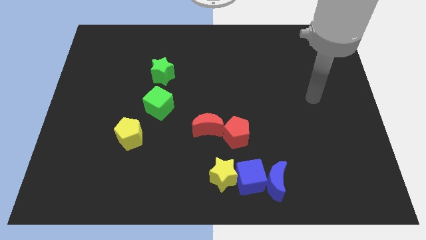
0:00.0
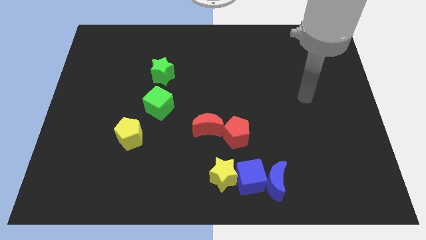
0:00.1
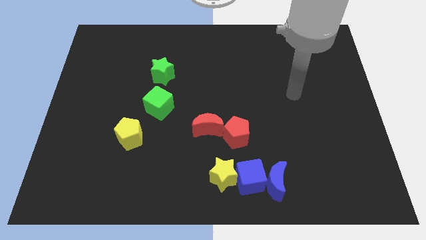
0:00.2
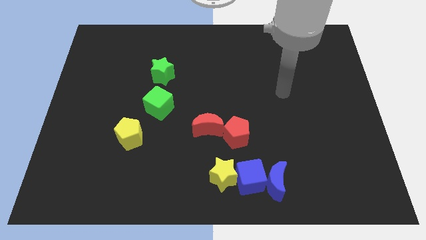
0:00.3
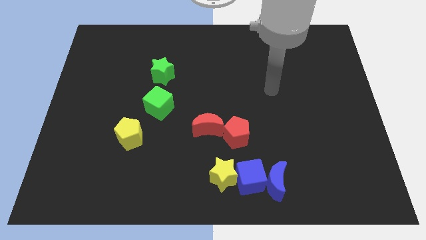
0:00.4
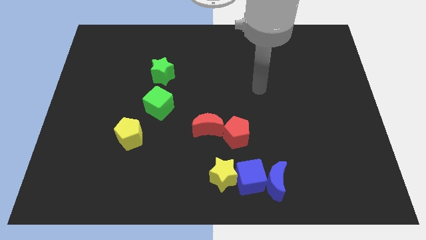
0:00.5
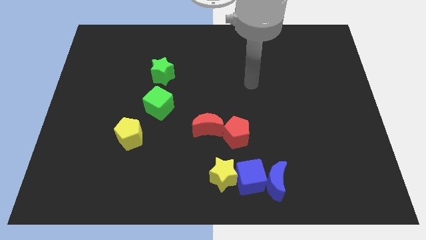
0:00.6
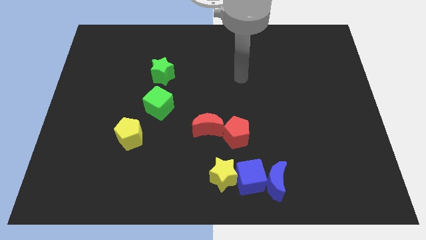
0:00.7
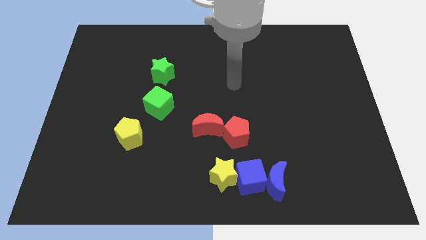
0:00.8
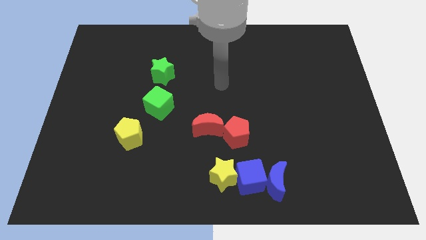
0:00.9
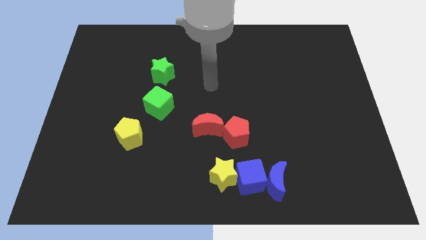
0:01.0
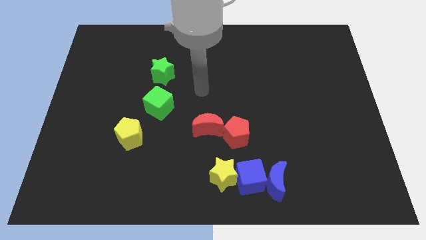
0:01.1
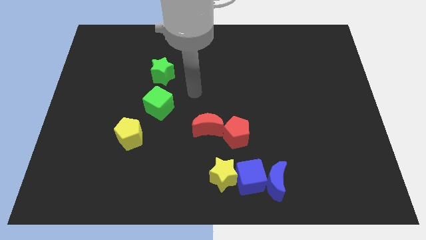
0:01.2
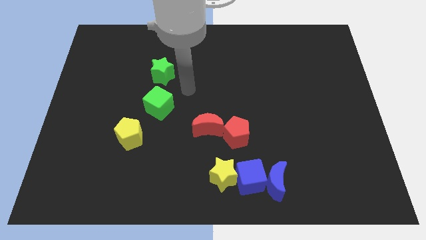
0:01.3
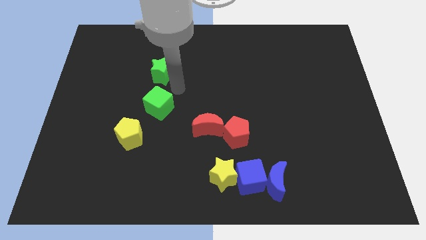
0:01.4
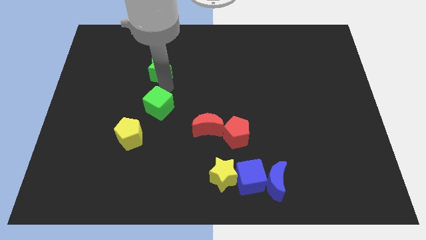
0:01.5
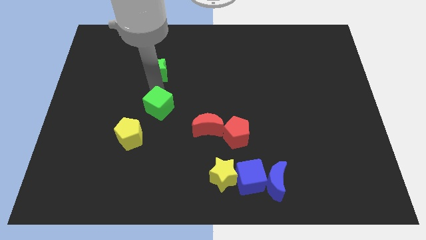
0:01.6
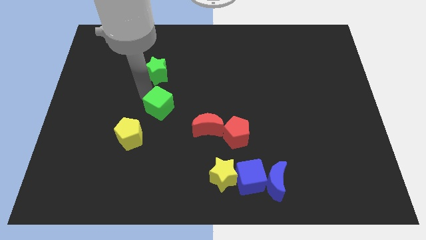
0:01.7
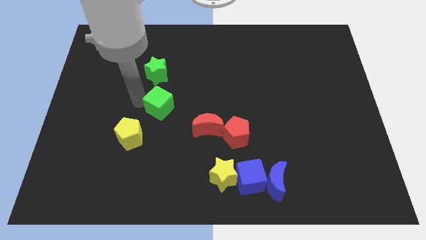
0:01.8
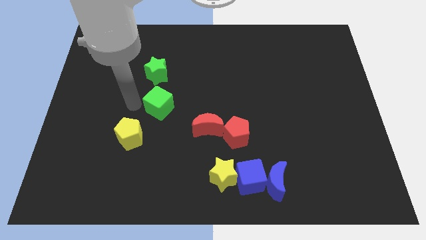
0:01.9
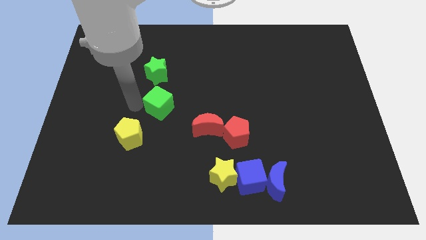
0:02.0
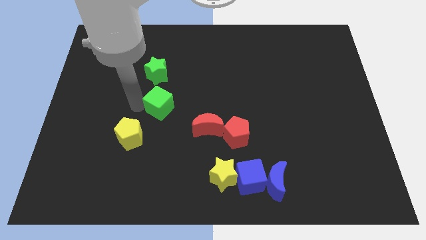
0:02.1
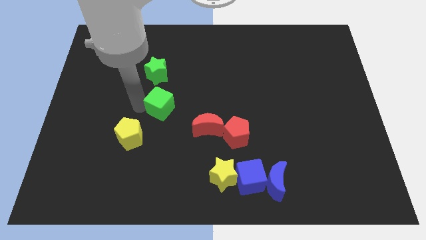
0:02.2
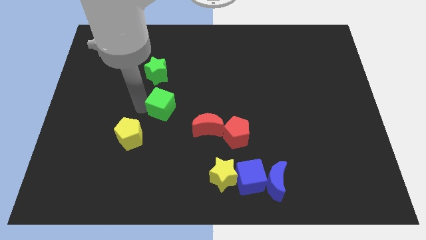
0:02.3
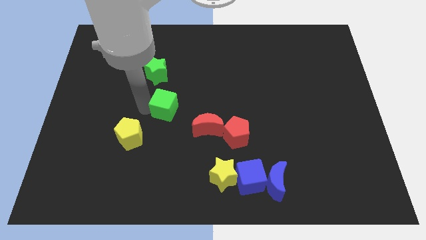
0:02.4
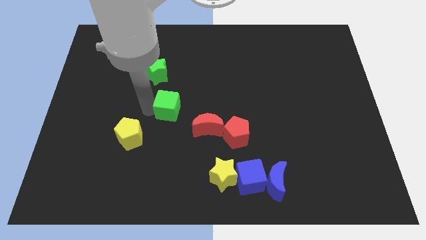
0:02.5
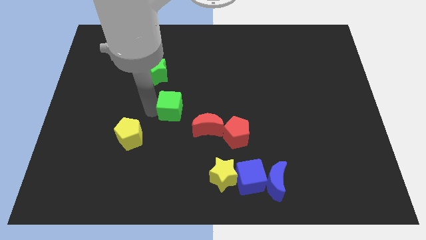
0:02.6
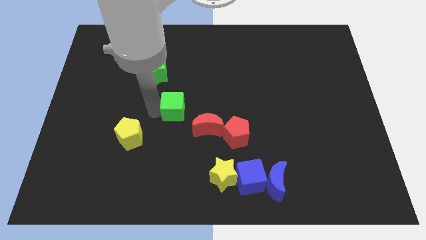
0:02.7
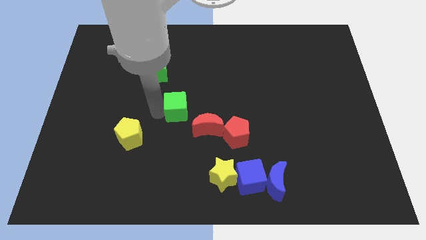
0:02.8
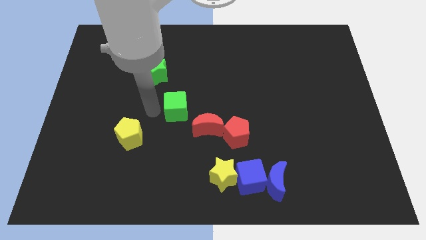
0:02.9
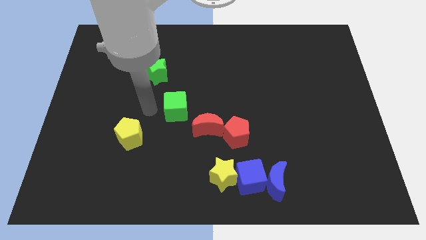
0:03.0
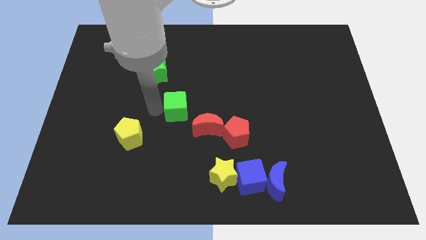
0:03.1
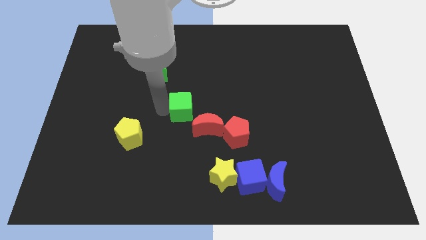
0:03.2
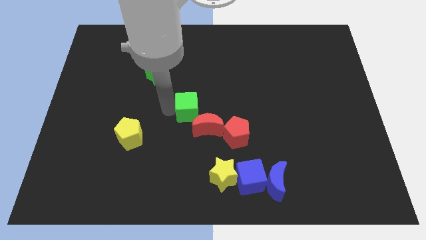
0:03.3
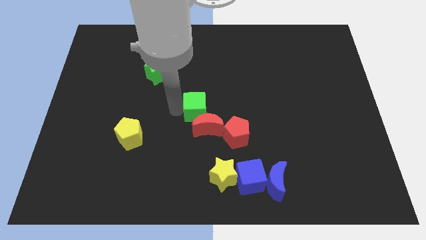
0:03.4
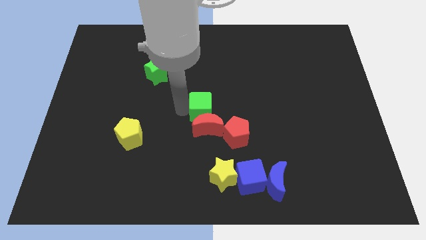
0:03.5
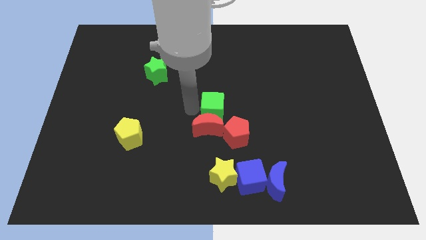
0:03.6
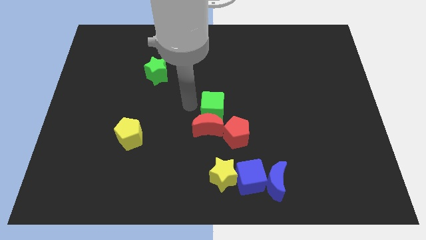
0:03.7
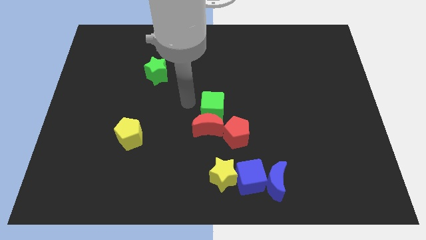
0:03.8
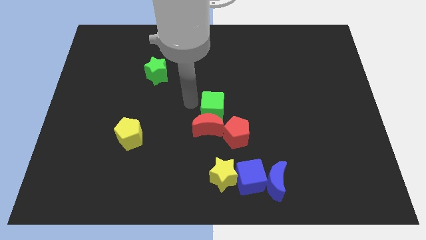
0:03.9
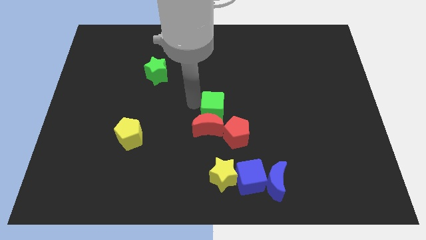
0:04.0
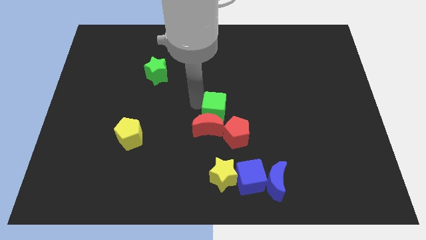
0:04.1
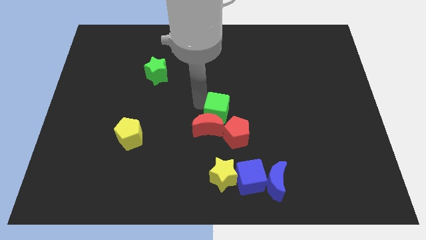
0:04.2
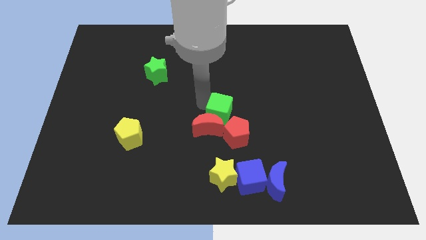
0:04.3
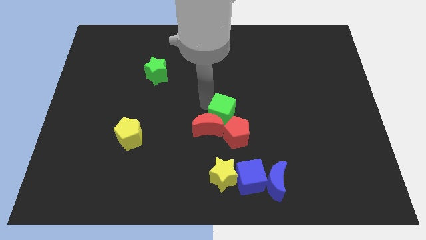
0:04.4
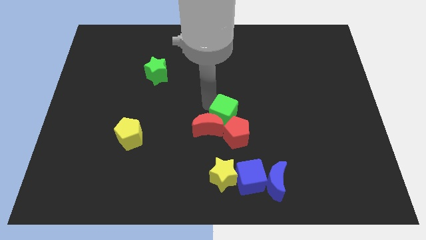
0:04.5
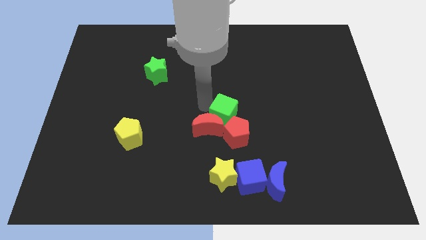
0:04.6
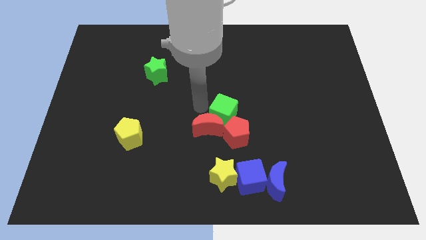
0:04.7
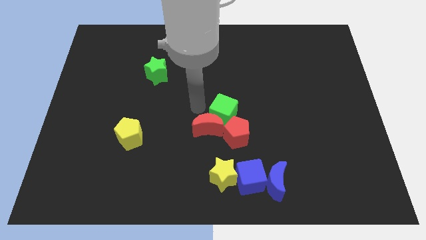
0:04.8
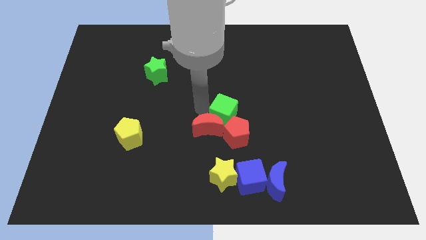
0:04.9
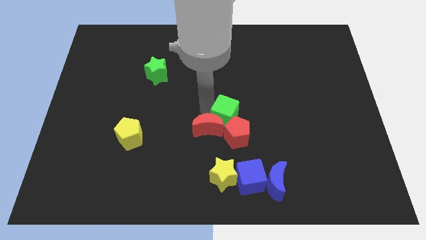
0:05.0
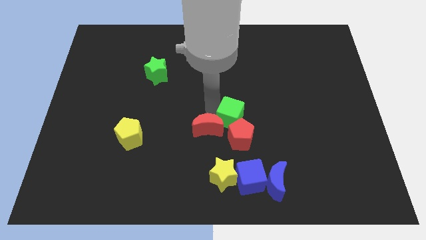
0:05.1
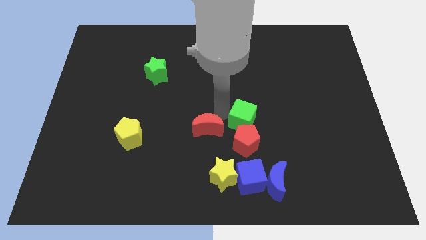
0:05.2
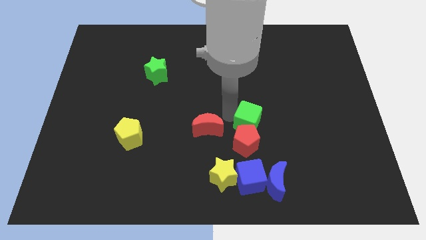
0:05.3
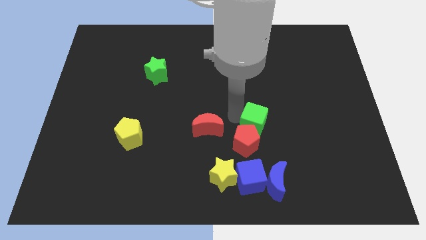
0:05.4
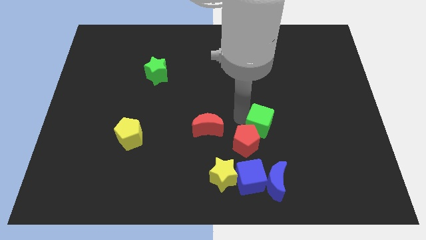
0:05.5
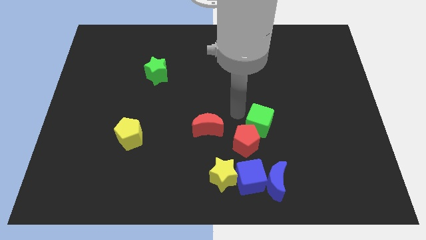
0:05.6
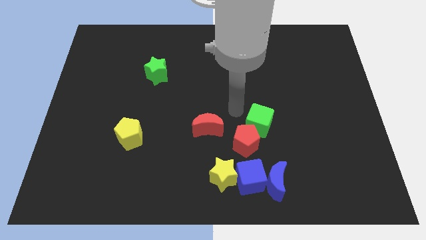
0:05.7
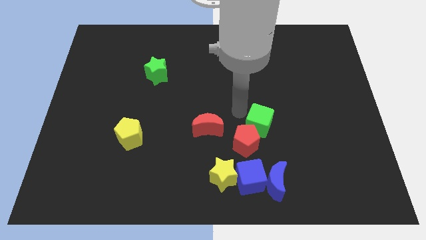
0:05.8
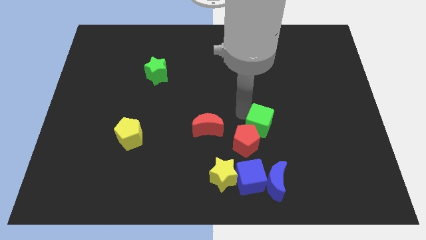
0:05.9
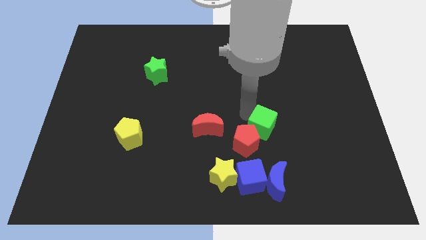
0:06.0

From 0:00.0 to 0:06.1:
push the green cube to the right of the red pentagon

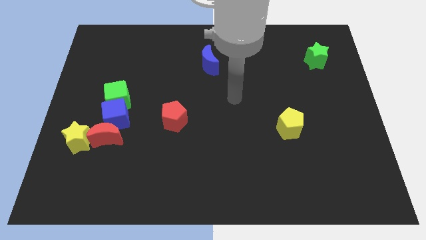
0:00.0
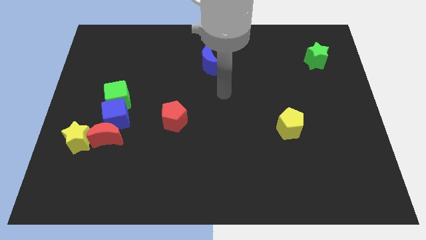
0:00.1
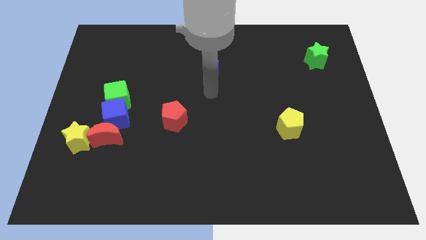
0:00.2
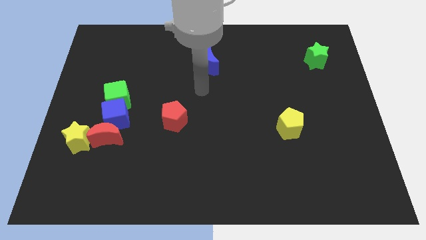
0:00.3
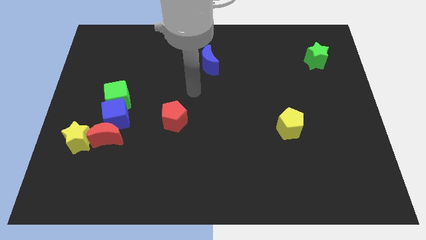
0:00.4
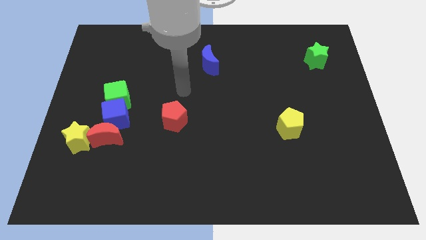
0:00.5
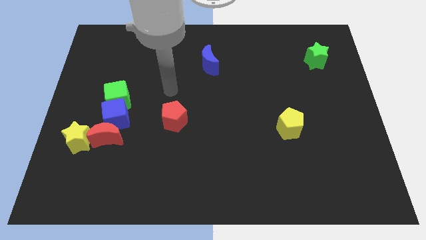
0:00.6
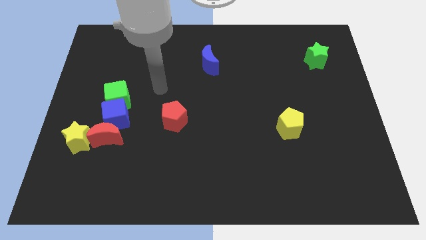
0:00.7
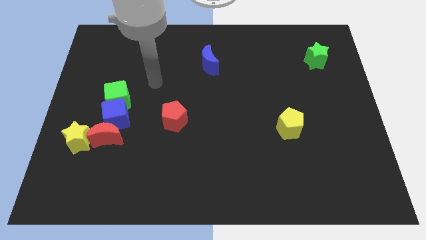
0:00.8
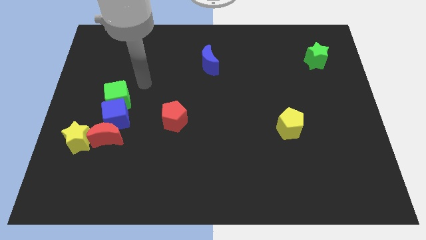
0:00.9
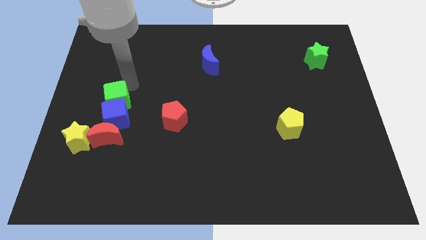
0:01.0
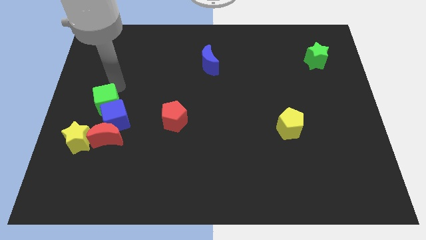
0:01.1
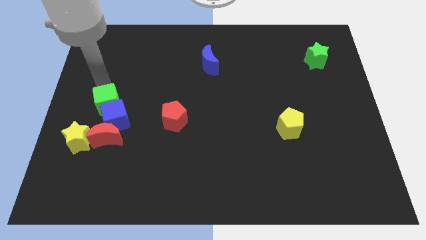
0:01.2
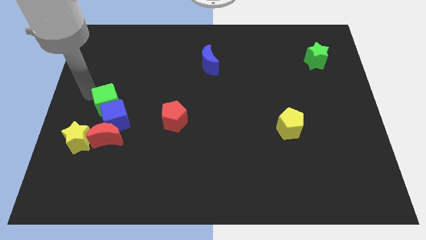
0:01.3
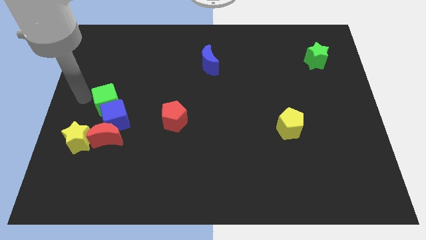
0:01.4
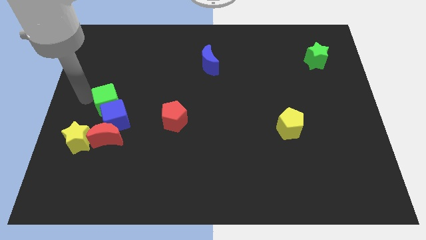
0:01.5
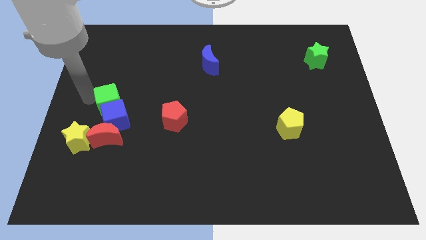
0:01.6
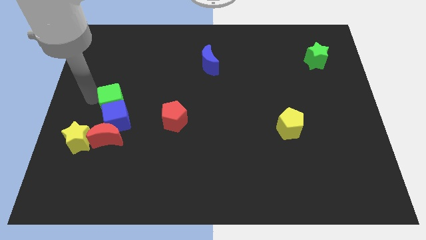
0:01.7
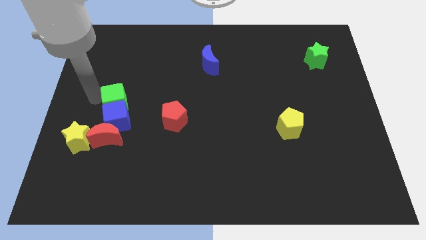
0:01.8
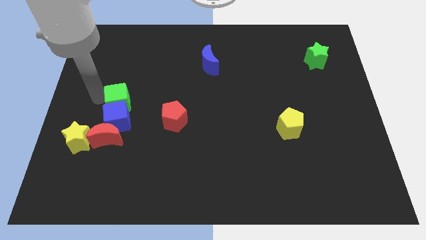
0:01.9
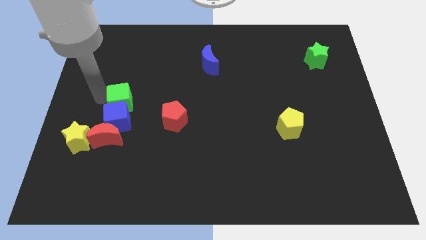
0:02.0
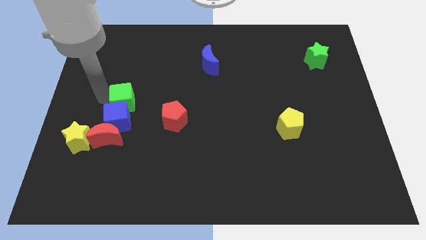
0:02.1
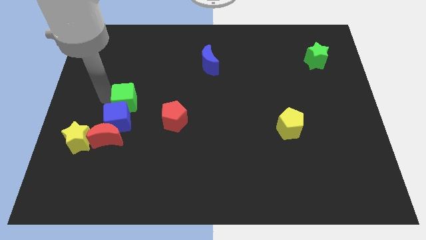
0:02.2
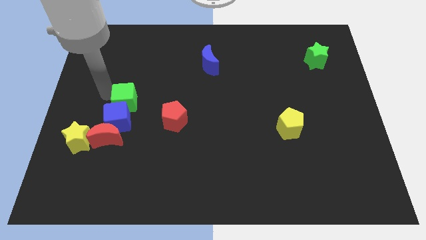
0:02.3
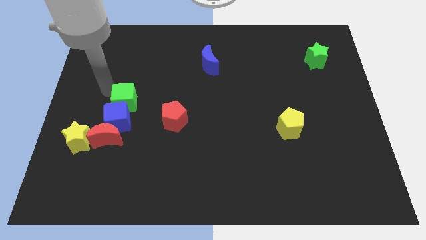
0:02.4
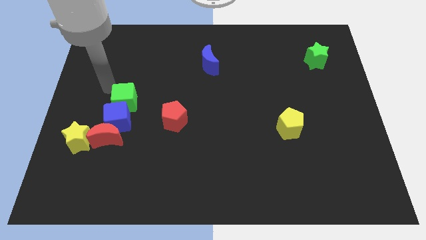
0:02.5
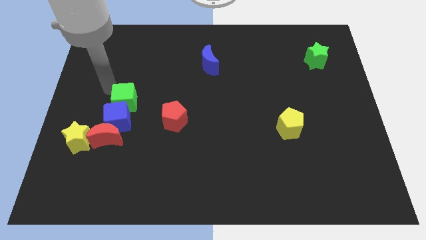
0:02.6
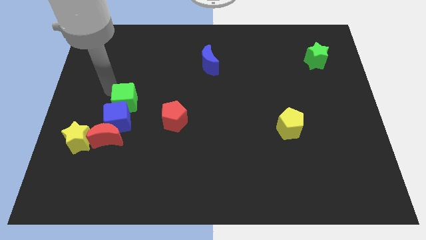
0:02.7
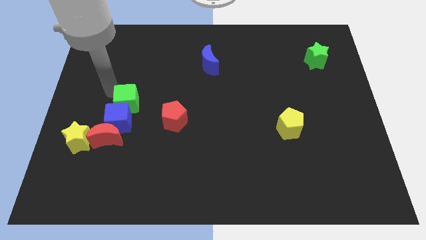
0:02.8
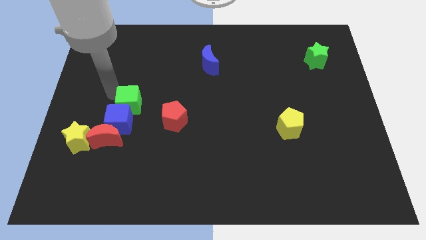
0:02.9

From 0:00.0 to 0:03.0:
slide the green cube to the top right of the red moon
